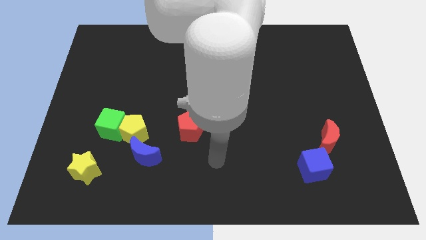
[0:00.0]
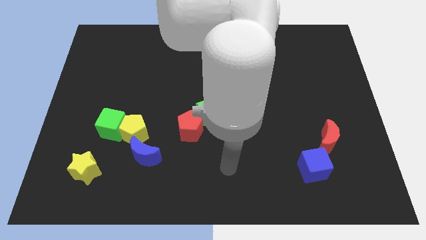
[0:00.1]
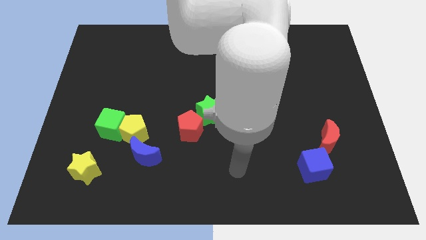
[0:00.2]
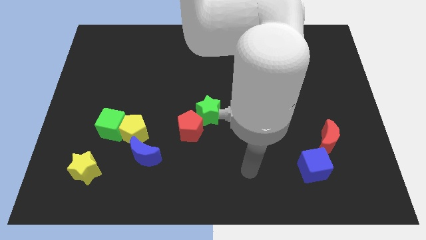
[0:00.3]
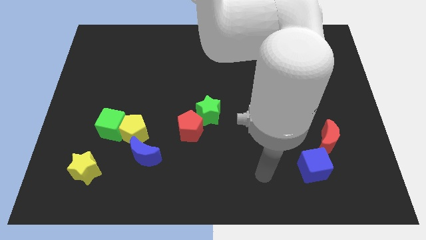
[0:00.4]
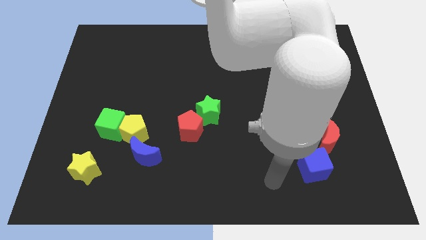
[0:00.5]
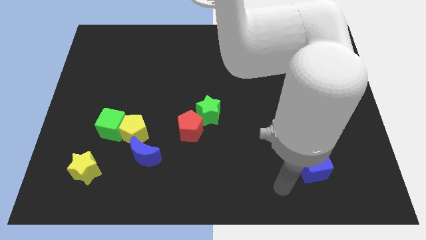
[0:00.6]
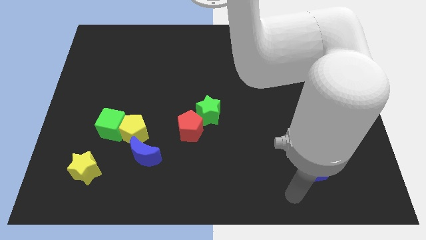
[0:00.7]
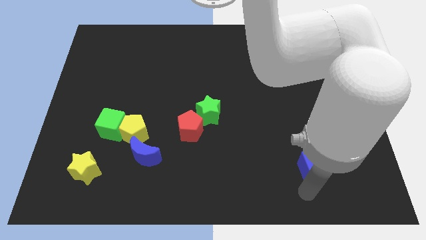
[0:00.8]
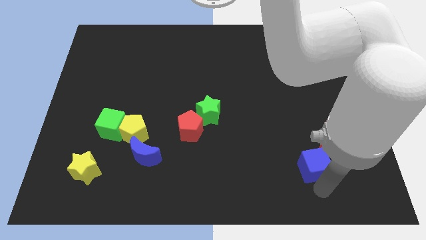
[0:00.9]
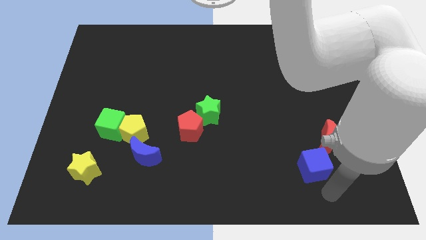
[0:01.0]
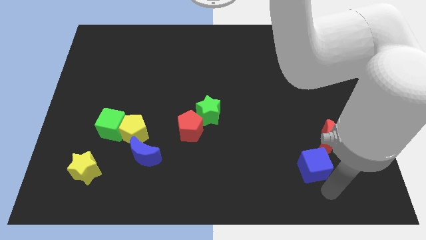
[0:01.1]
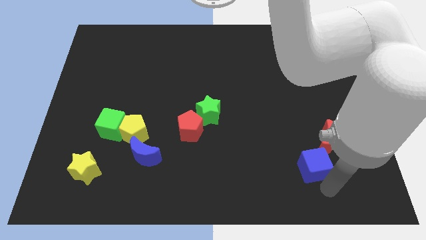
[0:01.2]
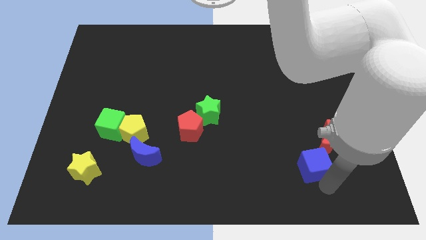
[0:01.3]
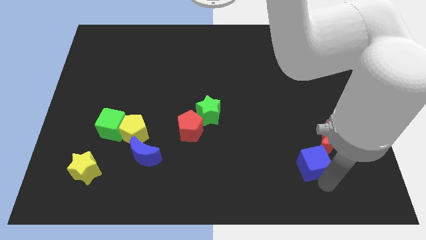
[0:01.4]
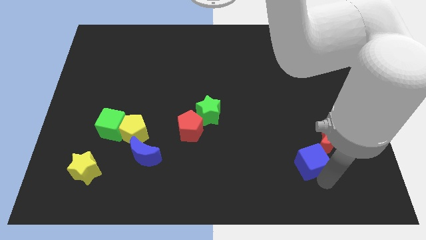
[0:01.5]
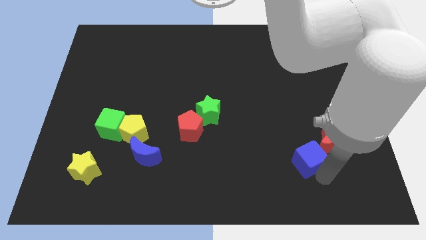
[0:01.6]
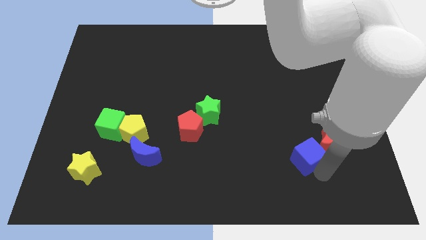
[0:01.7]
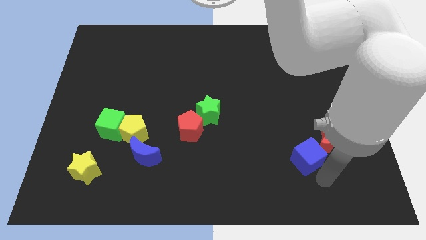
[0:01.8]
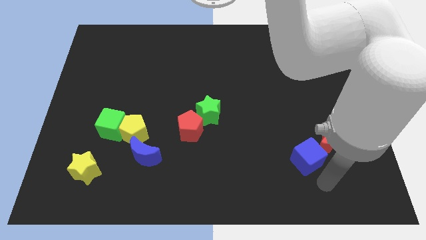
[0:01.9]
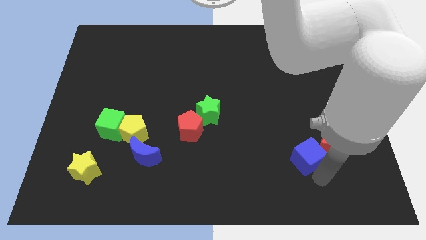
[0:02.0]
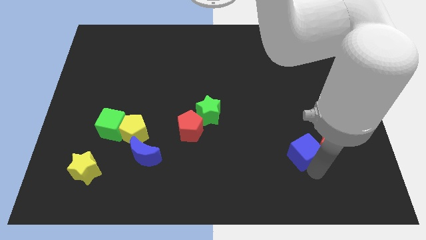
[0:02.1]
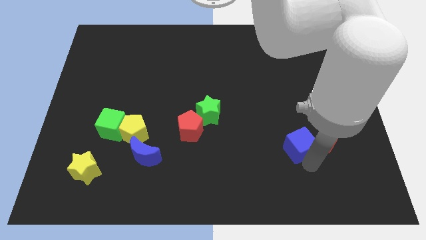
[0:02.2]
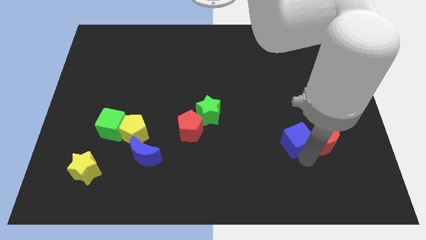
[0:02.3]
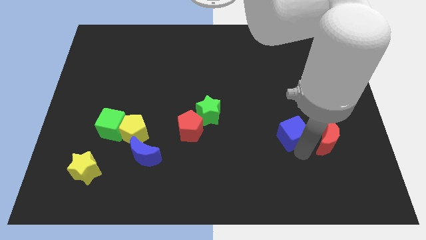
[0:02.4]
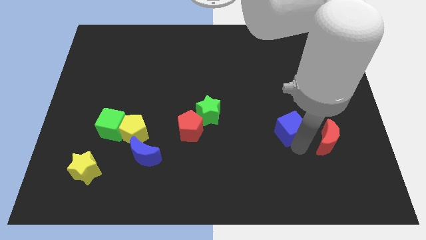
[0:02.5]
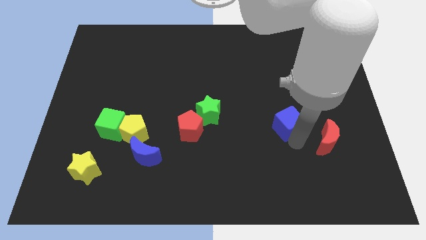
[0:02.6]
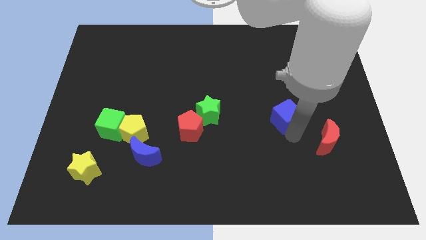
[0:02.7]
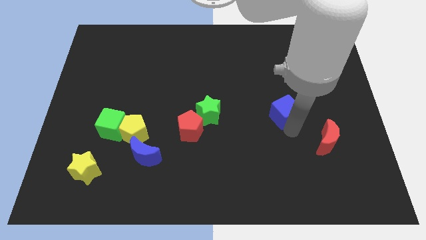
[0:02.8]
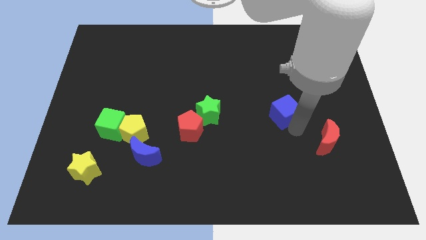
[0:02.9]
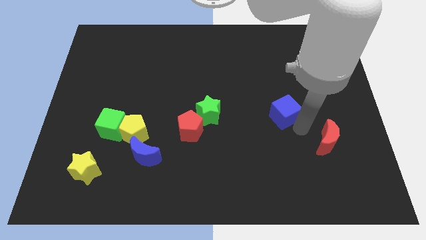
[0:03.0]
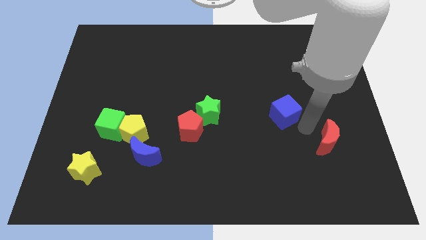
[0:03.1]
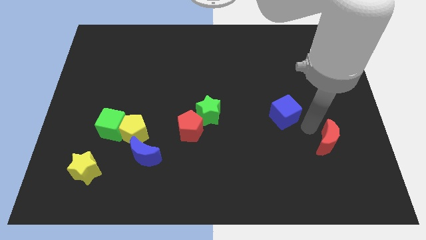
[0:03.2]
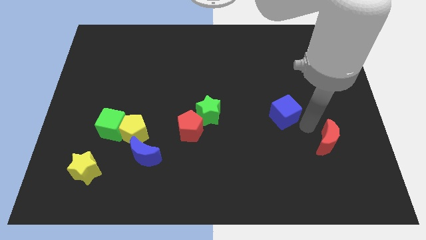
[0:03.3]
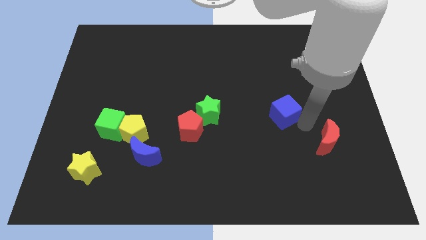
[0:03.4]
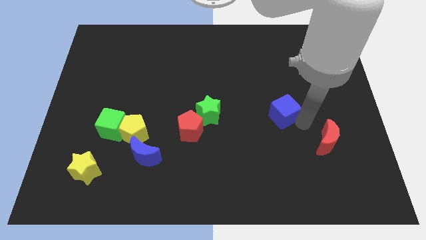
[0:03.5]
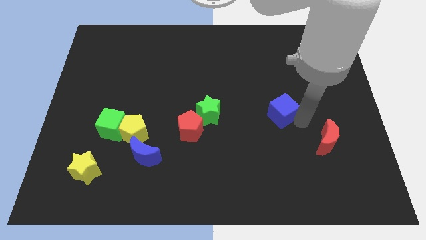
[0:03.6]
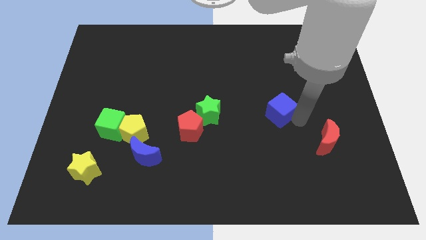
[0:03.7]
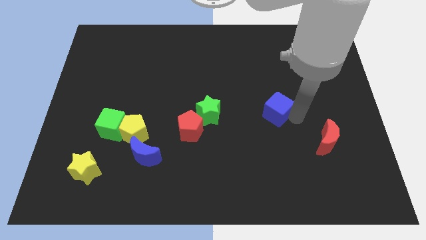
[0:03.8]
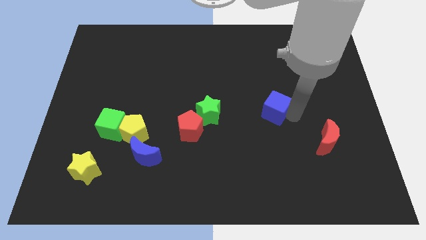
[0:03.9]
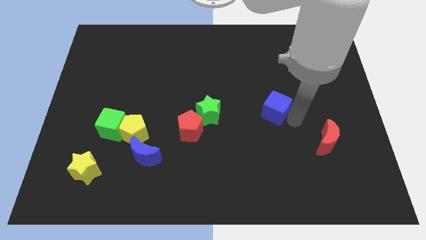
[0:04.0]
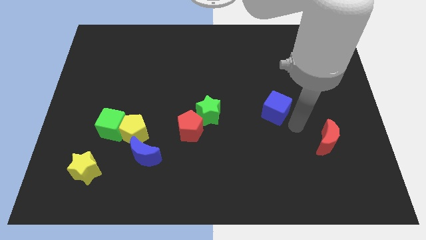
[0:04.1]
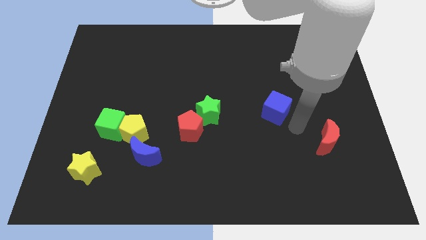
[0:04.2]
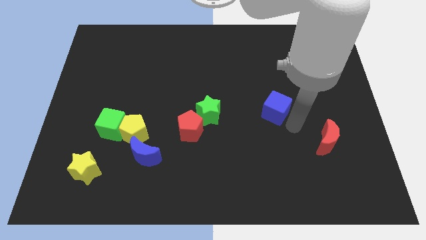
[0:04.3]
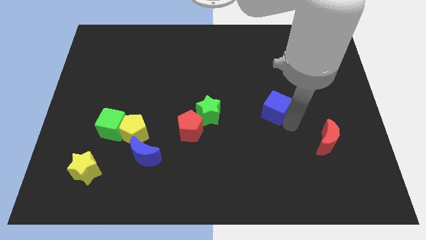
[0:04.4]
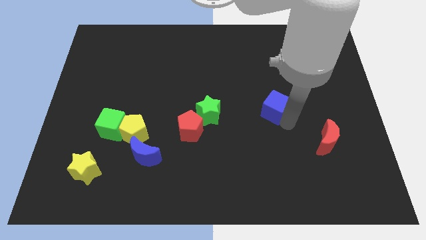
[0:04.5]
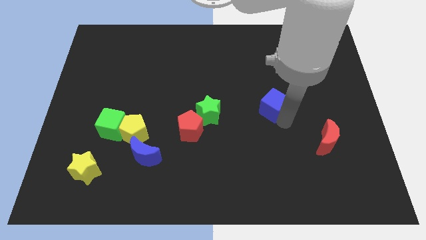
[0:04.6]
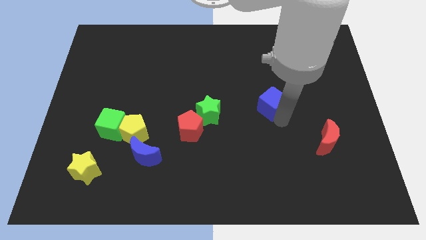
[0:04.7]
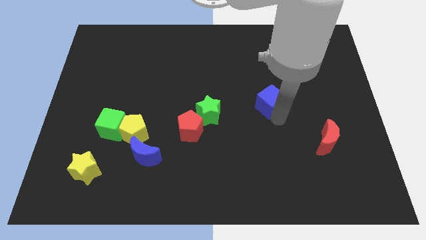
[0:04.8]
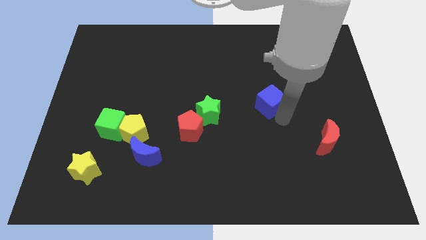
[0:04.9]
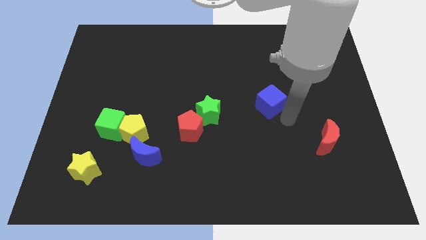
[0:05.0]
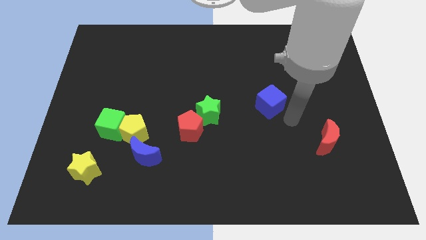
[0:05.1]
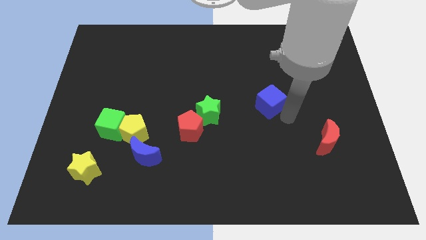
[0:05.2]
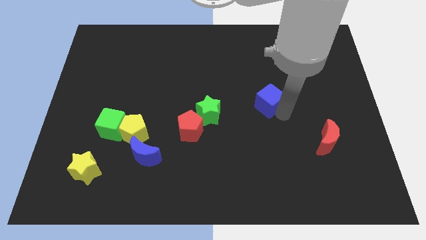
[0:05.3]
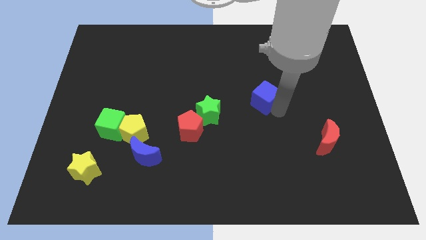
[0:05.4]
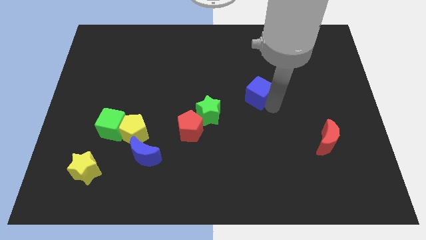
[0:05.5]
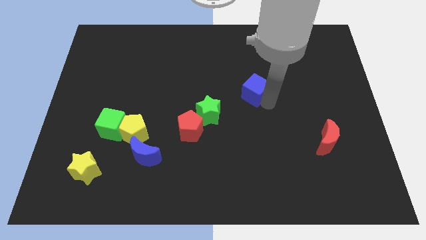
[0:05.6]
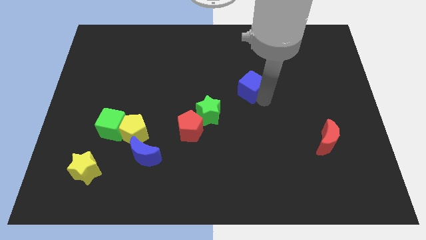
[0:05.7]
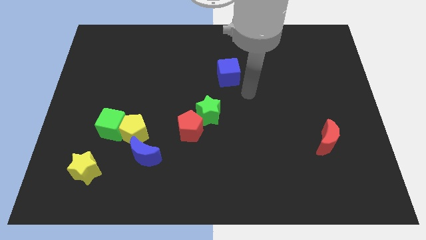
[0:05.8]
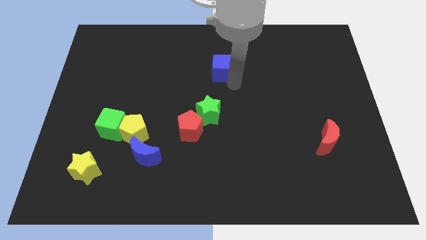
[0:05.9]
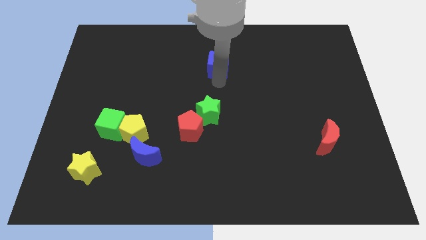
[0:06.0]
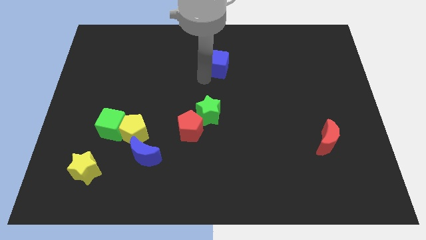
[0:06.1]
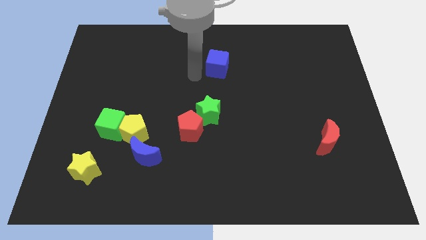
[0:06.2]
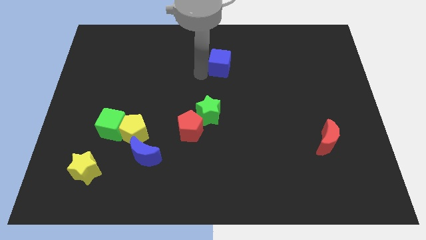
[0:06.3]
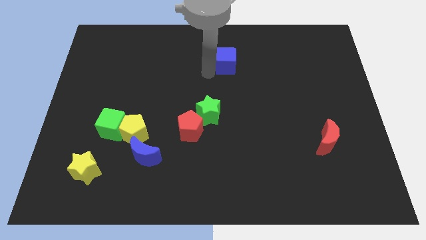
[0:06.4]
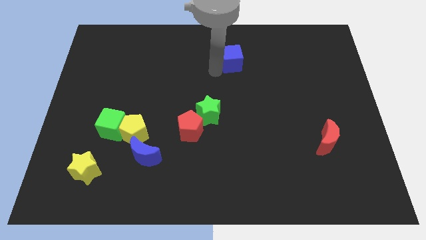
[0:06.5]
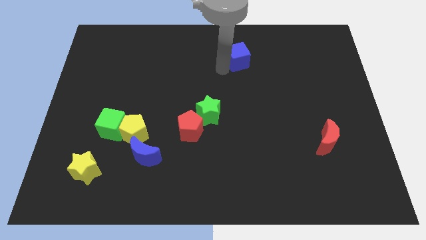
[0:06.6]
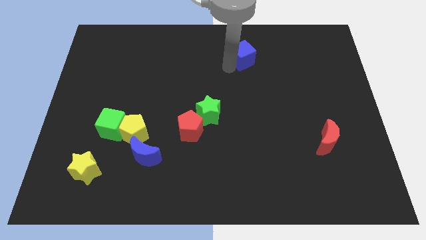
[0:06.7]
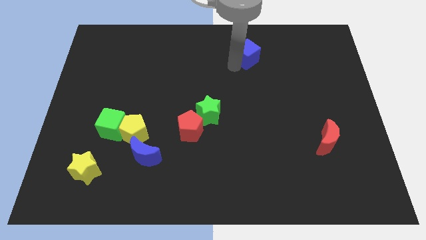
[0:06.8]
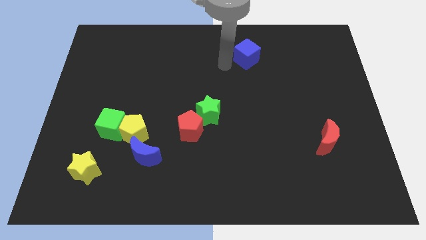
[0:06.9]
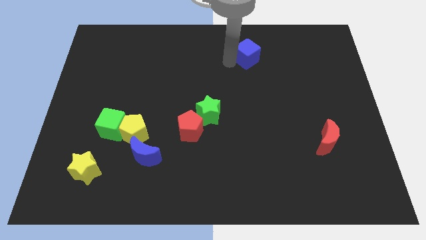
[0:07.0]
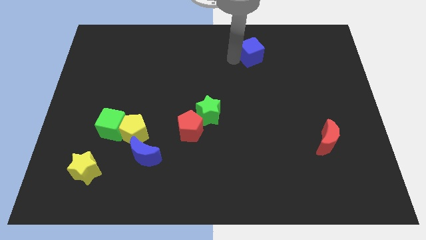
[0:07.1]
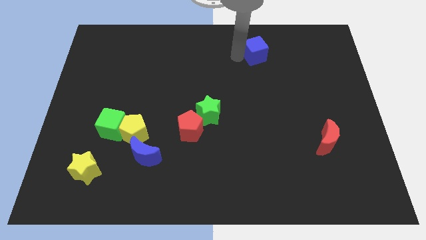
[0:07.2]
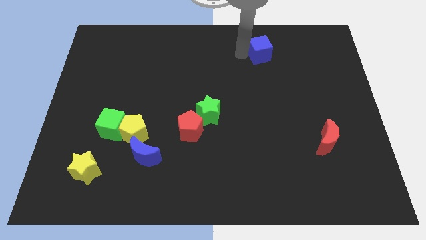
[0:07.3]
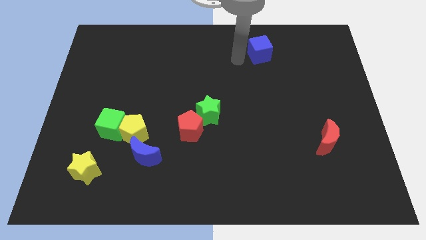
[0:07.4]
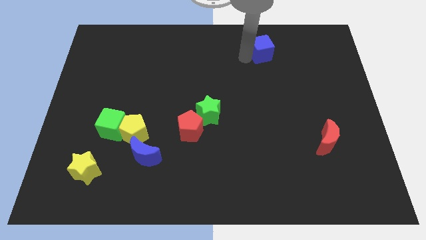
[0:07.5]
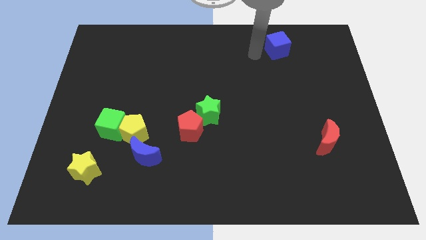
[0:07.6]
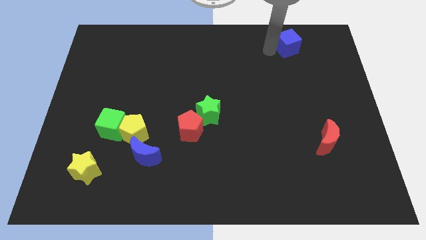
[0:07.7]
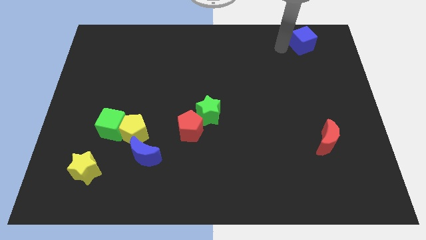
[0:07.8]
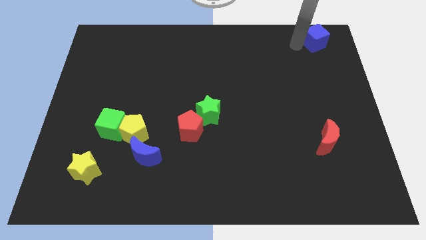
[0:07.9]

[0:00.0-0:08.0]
move the blue cube to the top right
